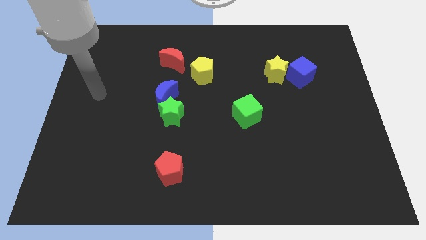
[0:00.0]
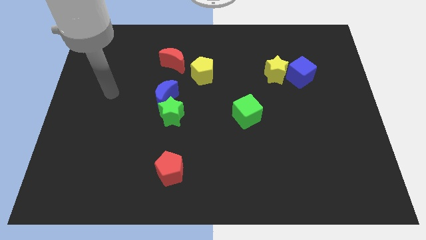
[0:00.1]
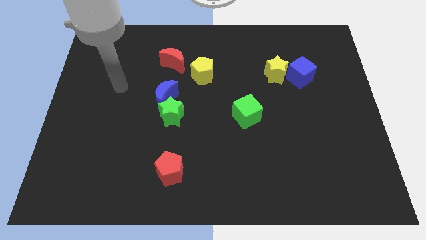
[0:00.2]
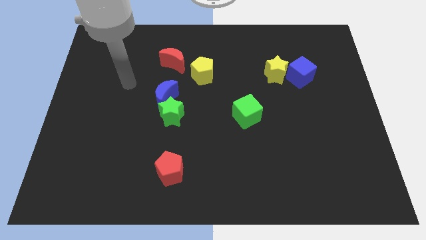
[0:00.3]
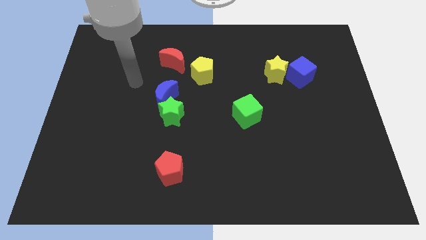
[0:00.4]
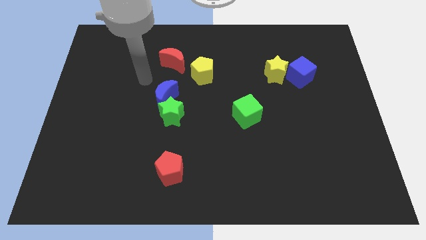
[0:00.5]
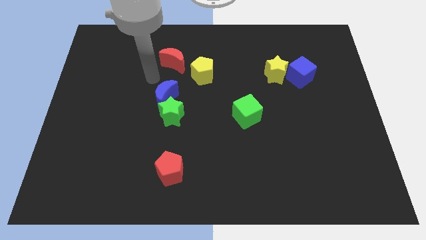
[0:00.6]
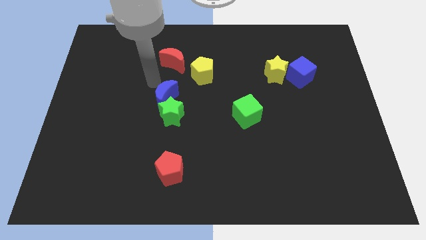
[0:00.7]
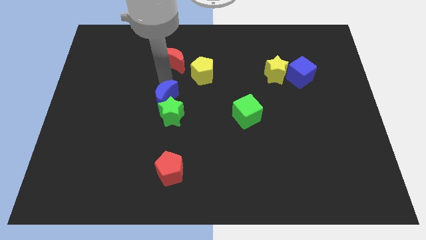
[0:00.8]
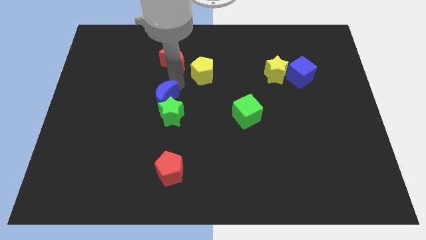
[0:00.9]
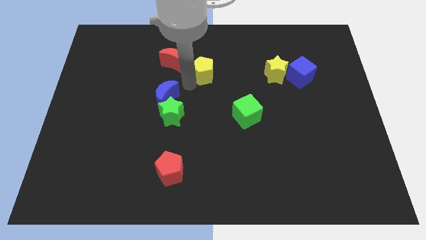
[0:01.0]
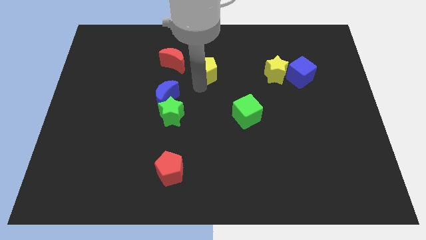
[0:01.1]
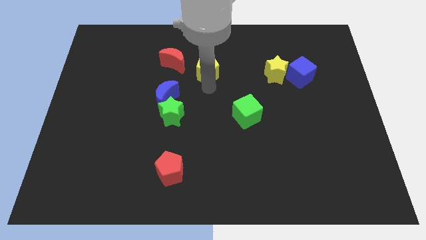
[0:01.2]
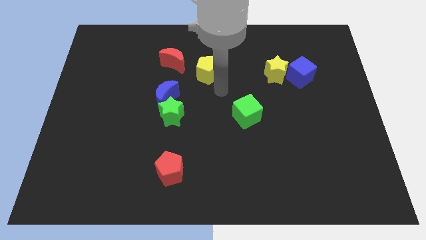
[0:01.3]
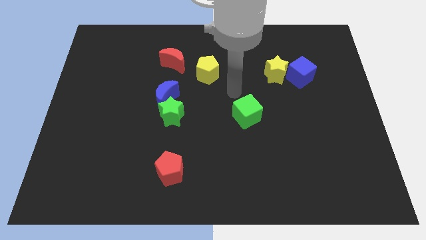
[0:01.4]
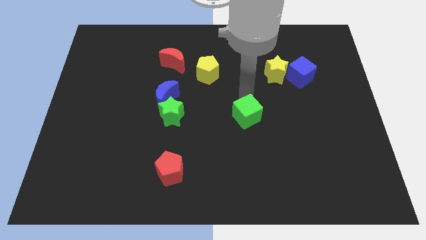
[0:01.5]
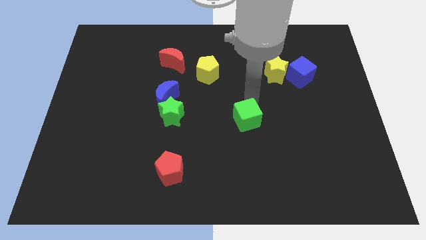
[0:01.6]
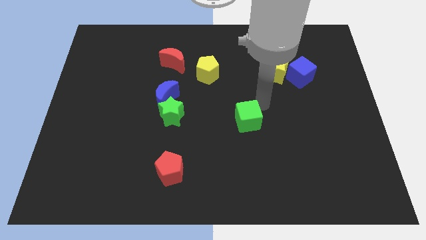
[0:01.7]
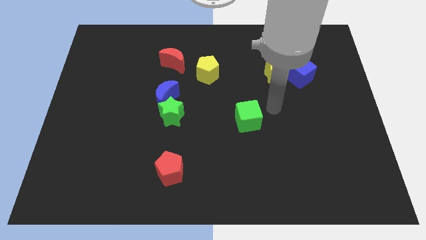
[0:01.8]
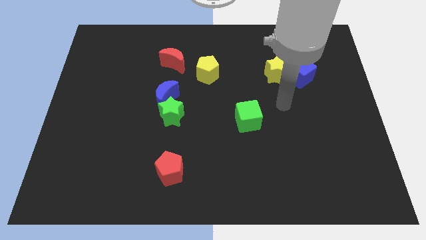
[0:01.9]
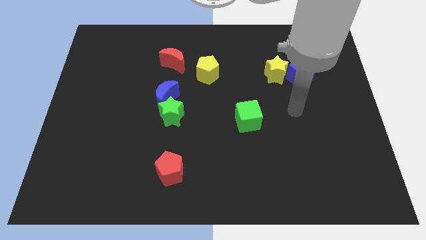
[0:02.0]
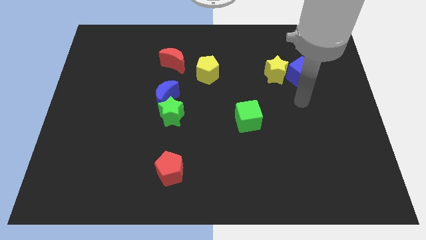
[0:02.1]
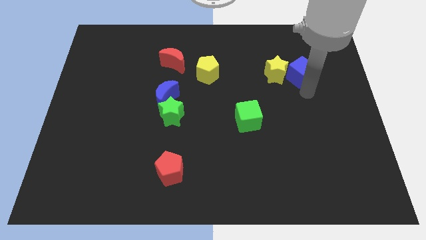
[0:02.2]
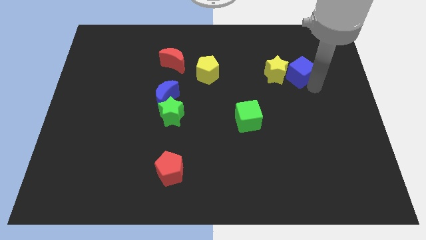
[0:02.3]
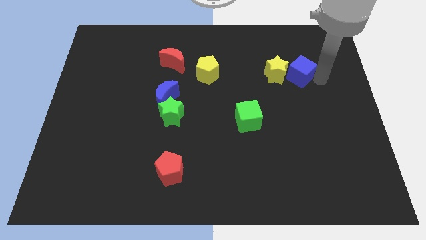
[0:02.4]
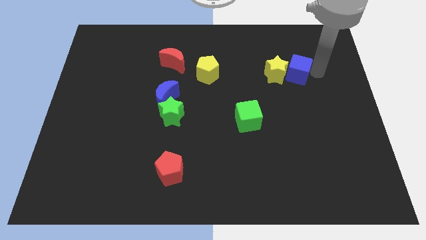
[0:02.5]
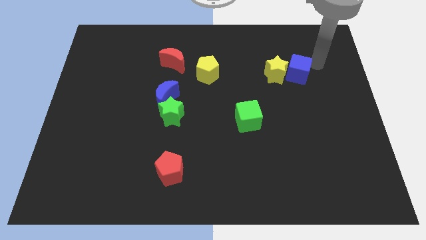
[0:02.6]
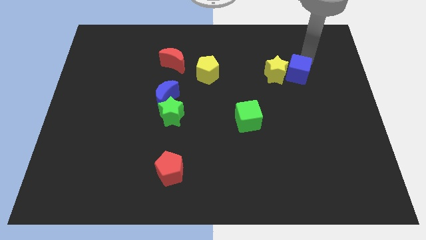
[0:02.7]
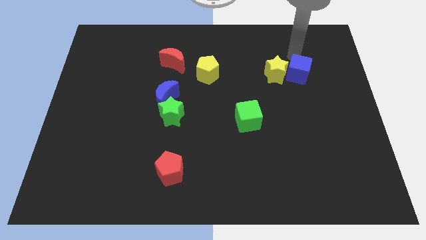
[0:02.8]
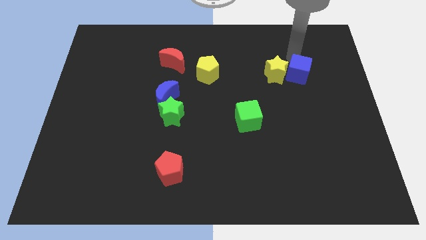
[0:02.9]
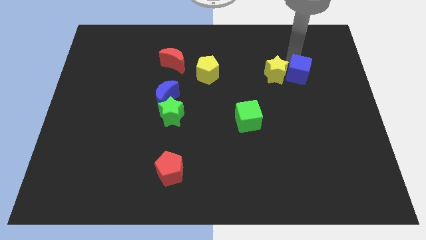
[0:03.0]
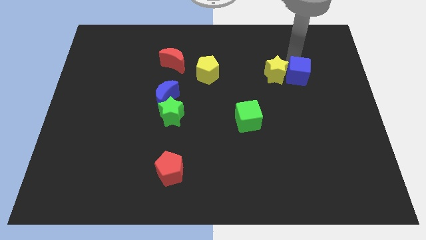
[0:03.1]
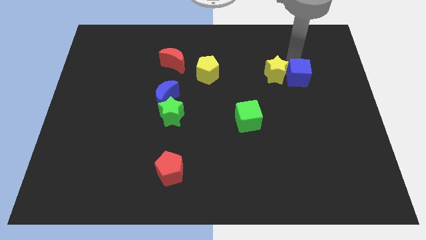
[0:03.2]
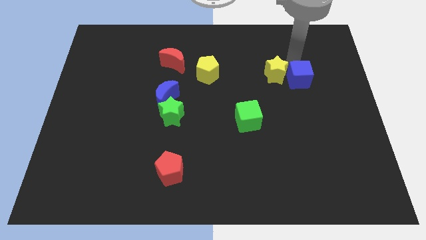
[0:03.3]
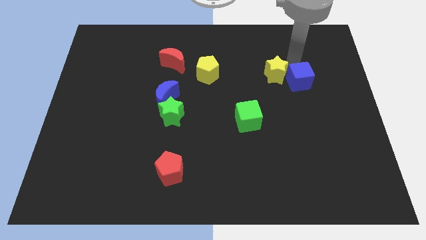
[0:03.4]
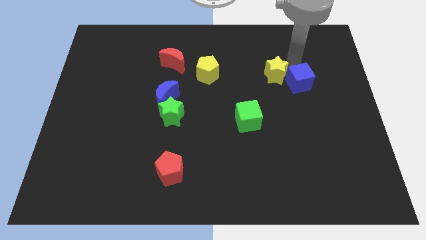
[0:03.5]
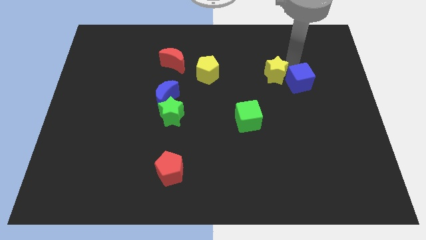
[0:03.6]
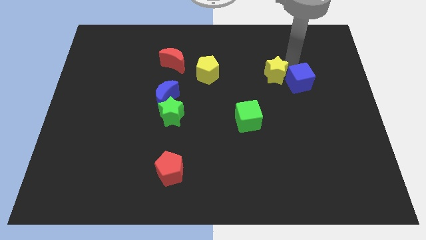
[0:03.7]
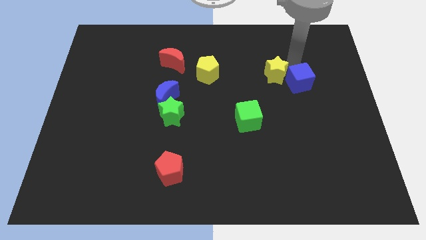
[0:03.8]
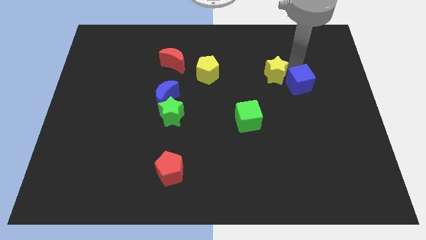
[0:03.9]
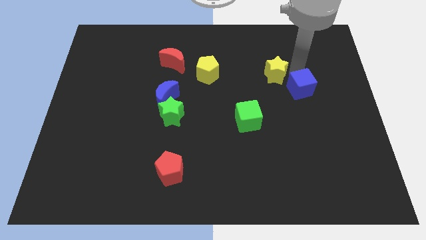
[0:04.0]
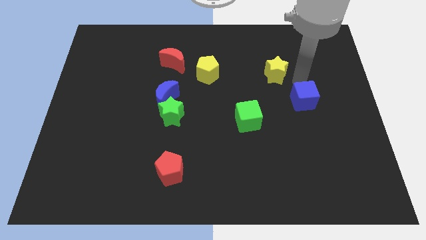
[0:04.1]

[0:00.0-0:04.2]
slightly push the blue cube down

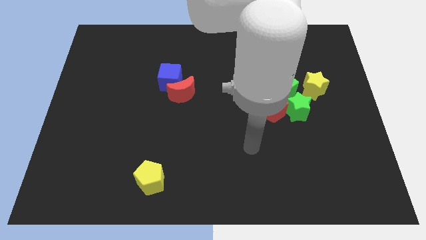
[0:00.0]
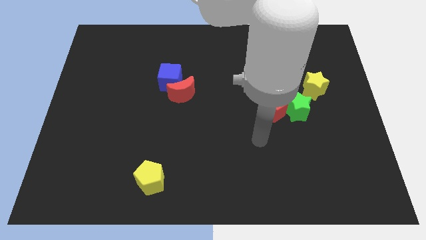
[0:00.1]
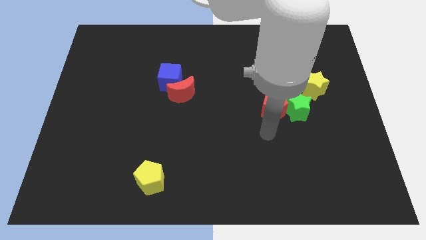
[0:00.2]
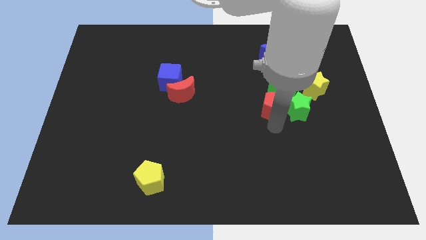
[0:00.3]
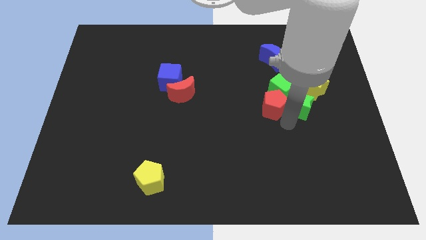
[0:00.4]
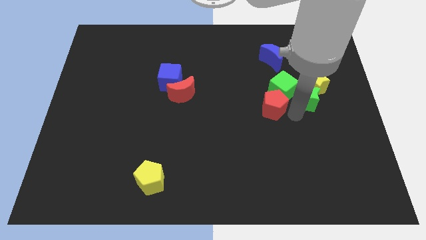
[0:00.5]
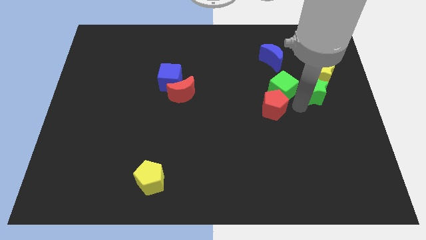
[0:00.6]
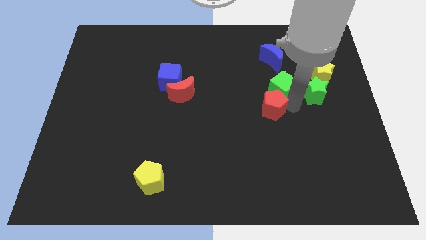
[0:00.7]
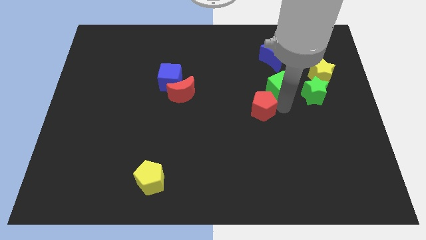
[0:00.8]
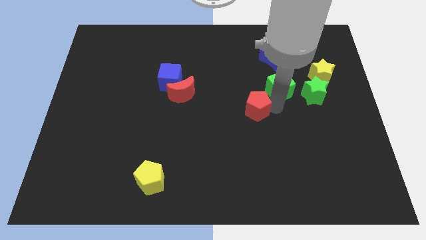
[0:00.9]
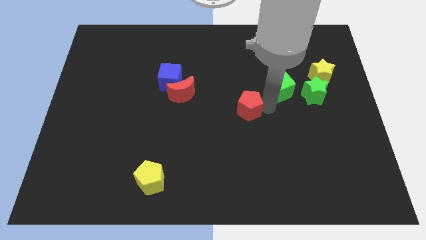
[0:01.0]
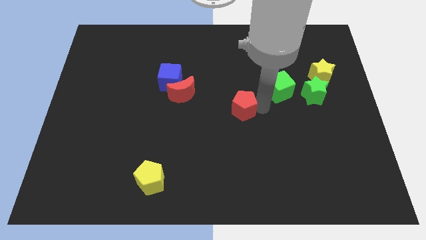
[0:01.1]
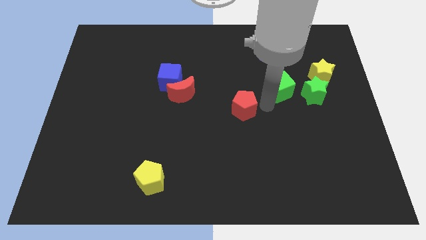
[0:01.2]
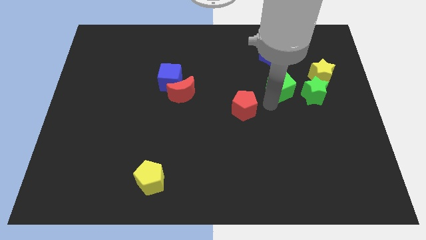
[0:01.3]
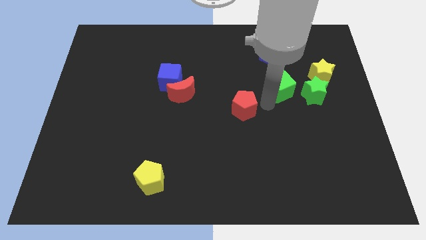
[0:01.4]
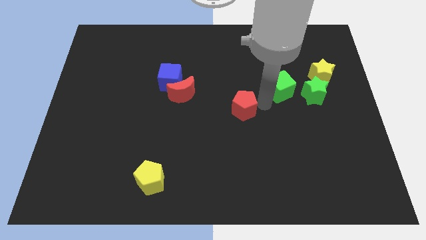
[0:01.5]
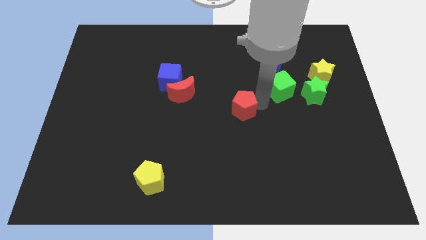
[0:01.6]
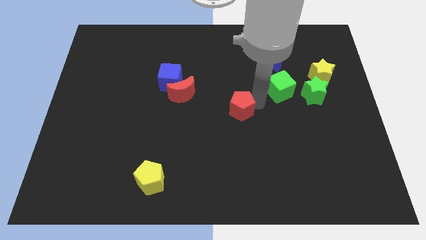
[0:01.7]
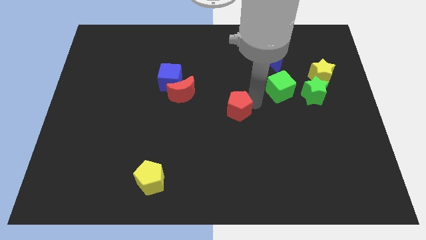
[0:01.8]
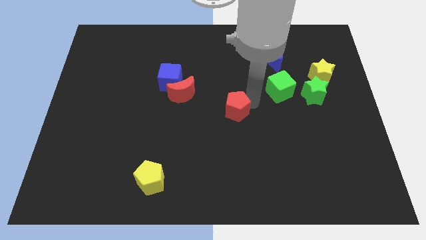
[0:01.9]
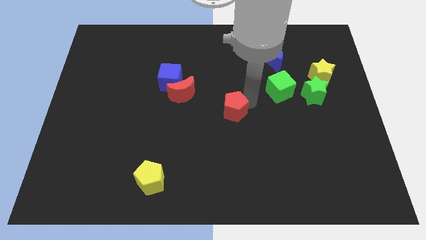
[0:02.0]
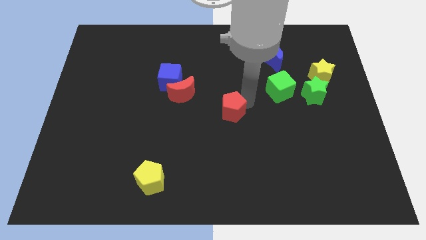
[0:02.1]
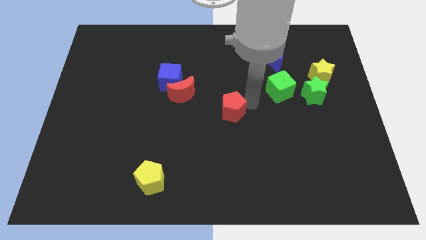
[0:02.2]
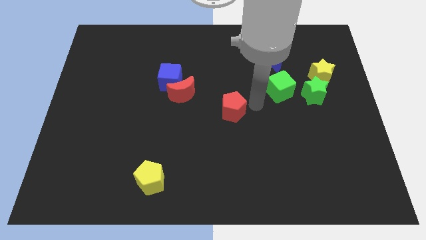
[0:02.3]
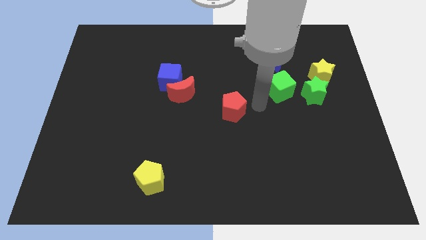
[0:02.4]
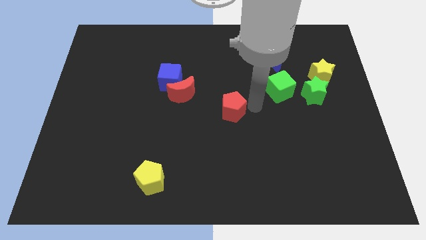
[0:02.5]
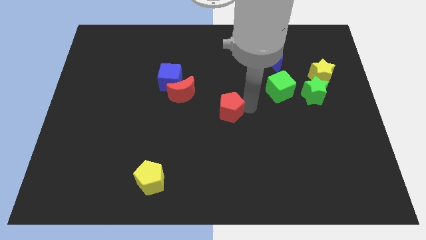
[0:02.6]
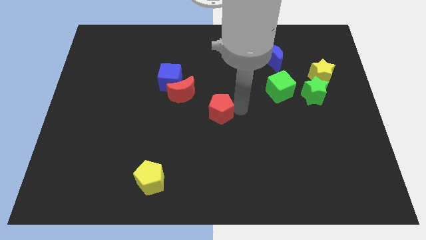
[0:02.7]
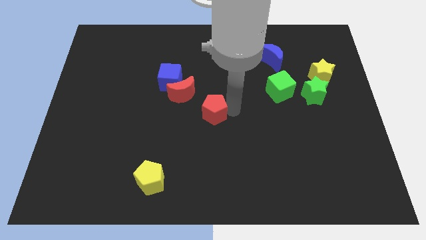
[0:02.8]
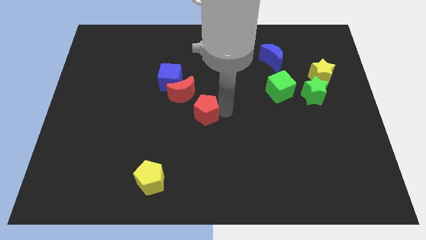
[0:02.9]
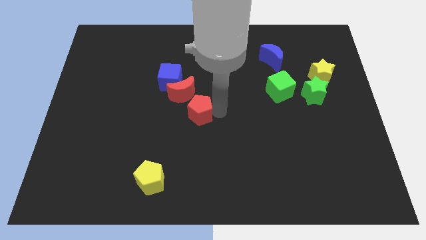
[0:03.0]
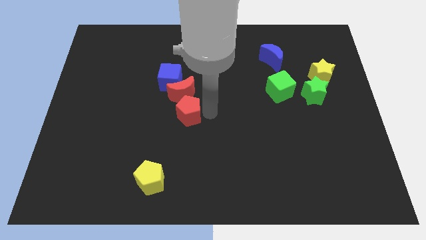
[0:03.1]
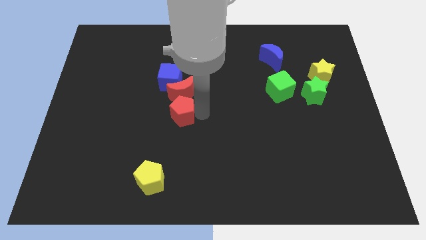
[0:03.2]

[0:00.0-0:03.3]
slide the red pentagon to the left

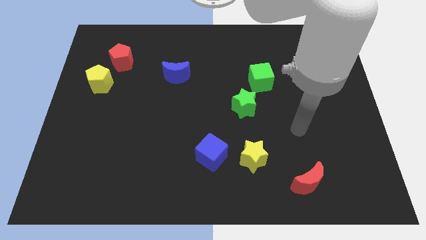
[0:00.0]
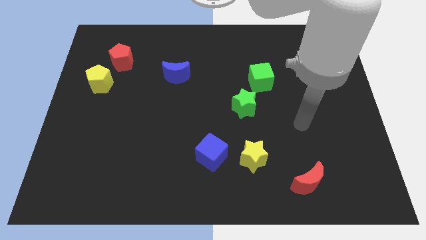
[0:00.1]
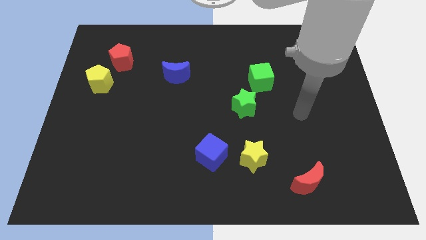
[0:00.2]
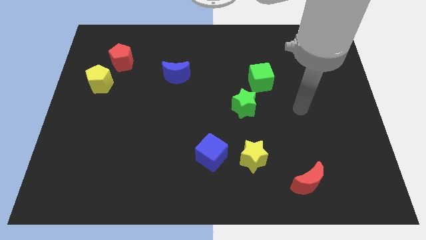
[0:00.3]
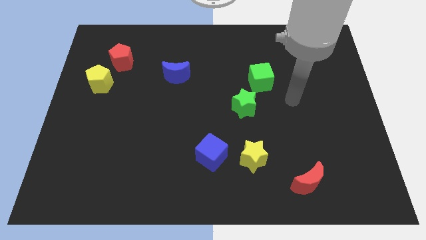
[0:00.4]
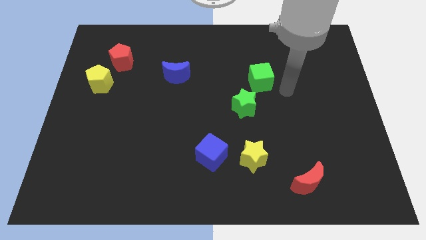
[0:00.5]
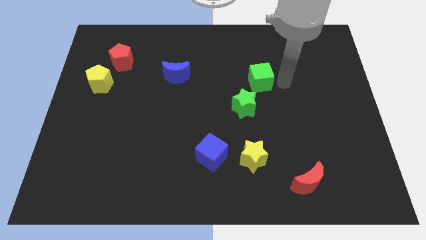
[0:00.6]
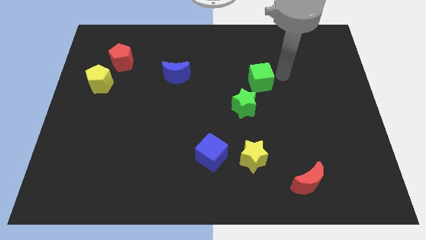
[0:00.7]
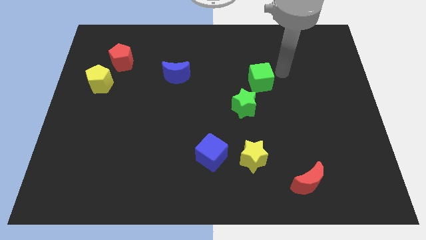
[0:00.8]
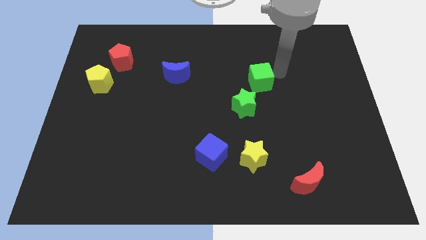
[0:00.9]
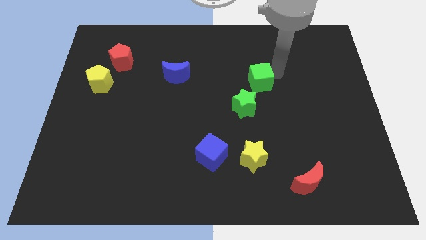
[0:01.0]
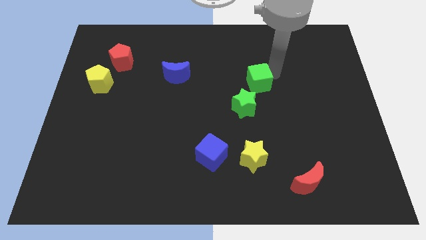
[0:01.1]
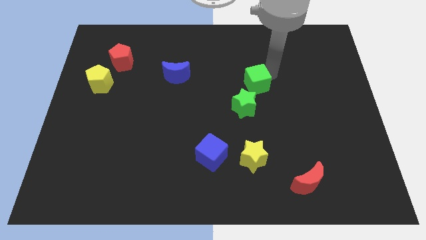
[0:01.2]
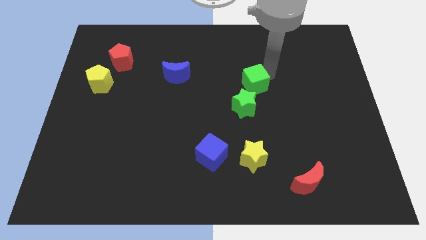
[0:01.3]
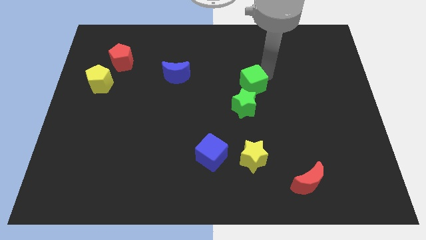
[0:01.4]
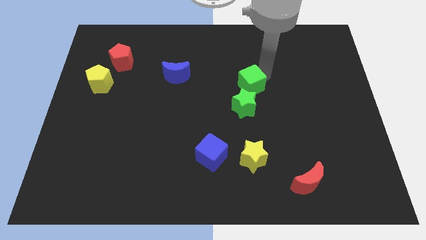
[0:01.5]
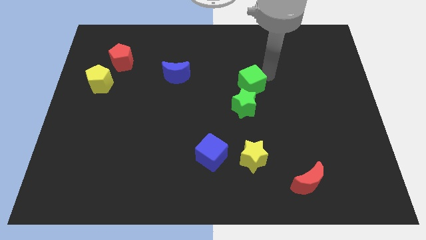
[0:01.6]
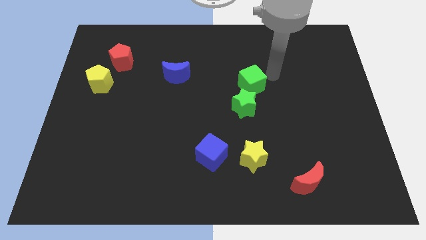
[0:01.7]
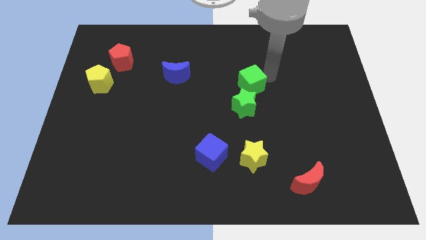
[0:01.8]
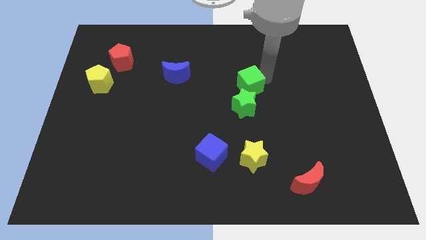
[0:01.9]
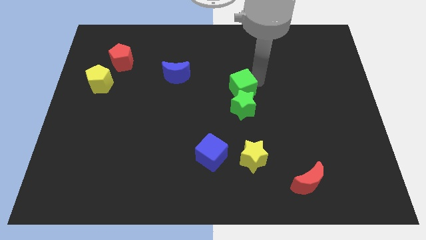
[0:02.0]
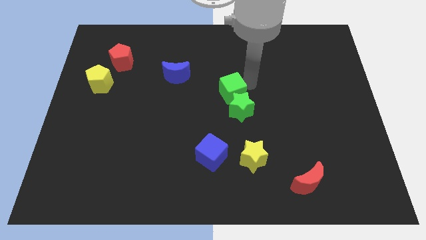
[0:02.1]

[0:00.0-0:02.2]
slightly slide the green cube downwards and to the left
